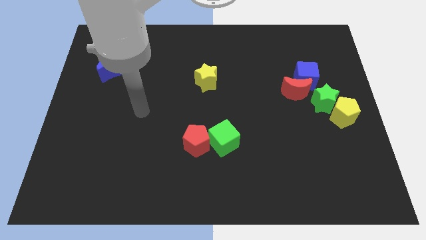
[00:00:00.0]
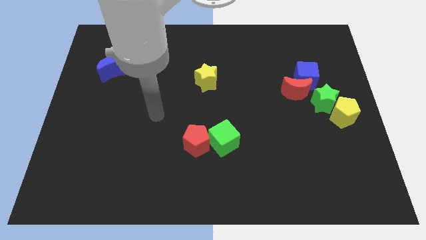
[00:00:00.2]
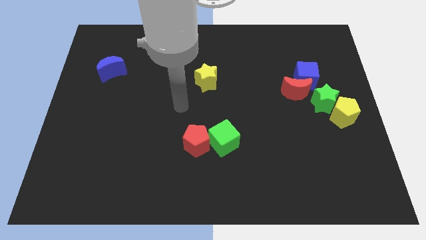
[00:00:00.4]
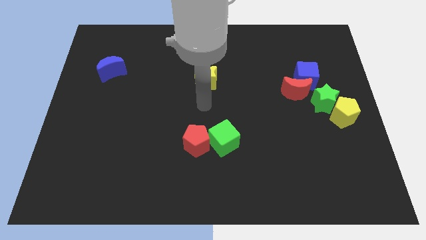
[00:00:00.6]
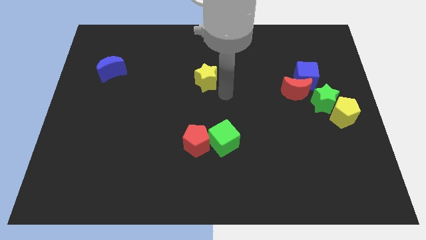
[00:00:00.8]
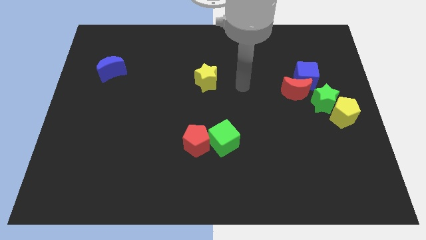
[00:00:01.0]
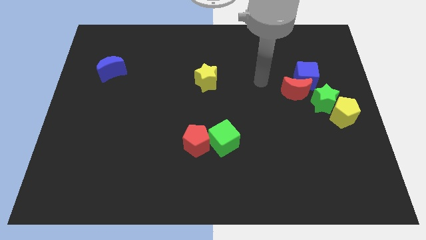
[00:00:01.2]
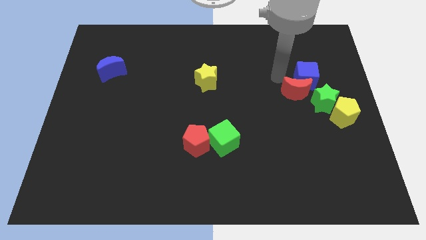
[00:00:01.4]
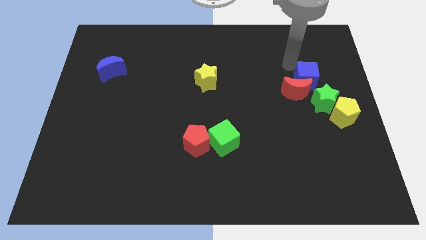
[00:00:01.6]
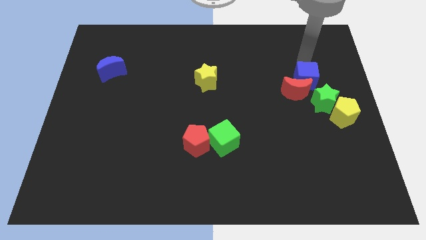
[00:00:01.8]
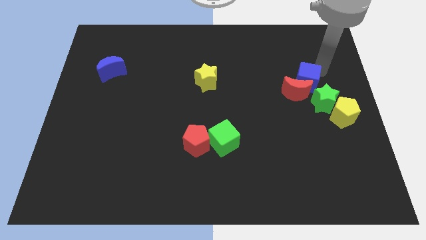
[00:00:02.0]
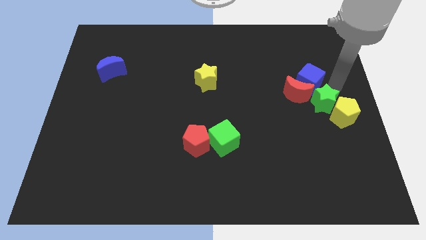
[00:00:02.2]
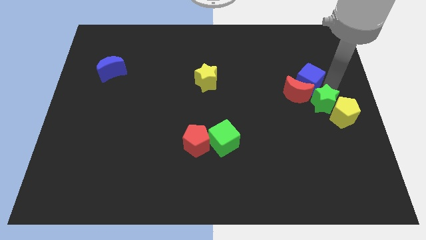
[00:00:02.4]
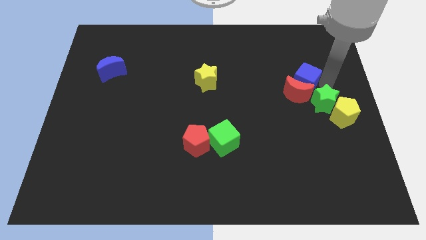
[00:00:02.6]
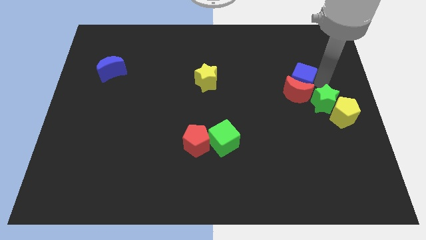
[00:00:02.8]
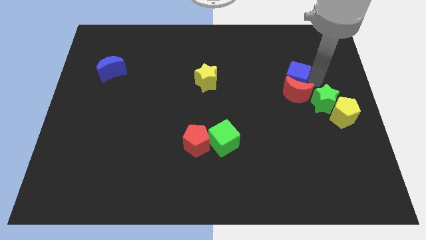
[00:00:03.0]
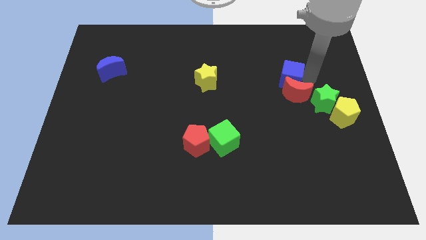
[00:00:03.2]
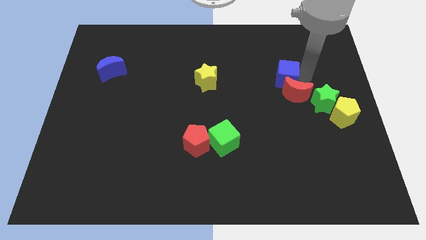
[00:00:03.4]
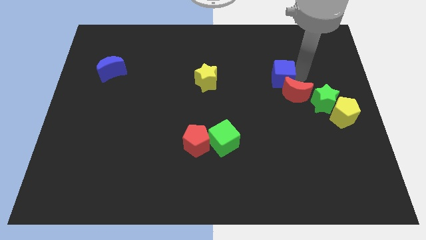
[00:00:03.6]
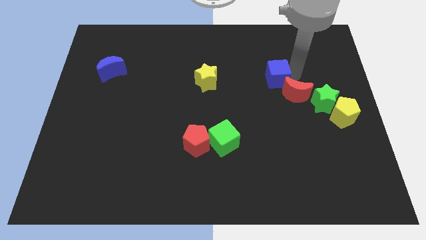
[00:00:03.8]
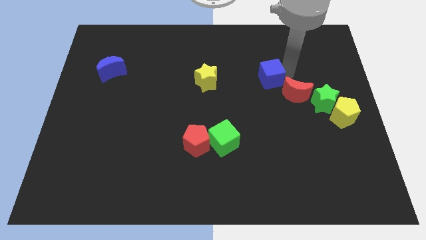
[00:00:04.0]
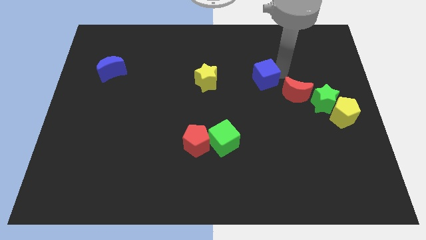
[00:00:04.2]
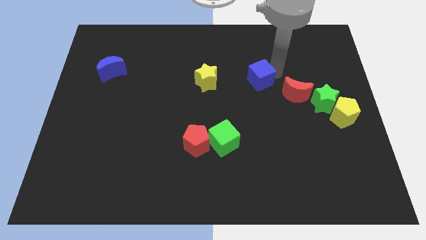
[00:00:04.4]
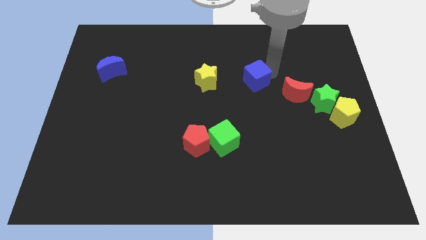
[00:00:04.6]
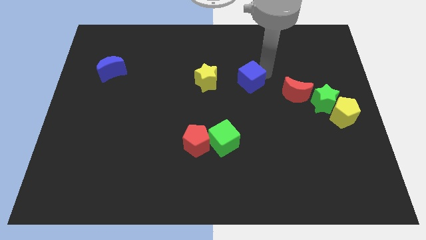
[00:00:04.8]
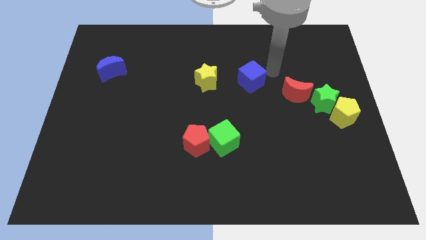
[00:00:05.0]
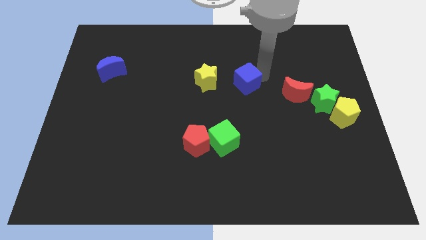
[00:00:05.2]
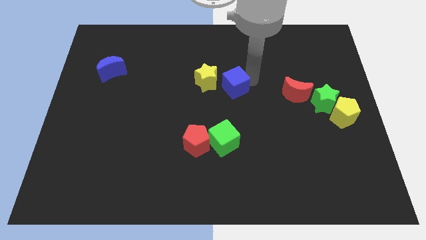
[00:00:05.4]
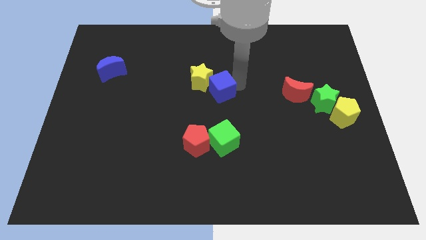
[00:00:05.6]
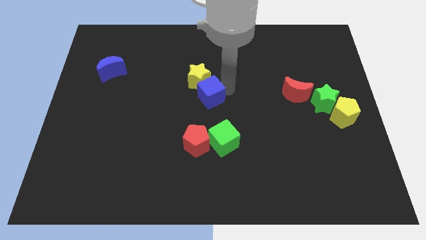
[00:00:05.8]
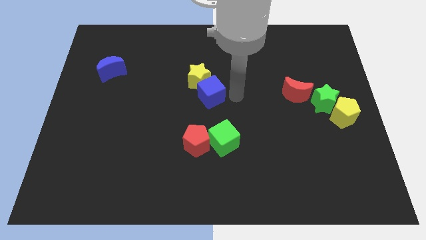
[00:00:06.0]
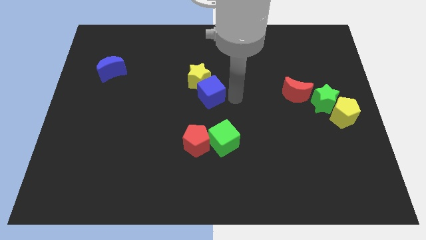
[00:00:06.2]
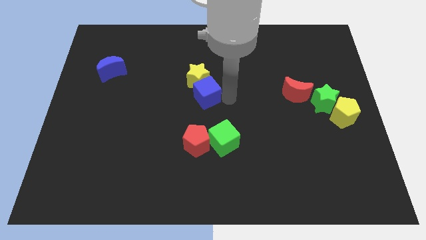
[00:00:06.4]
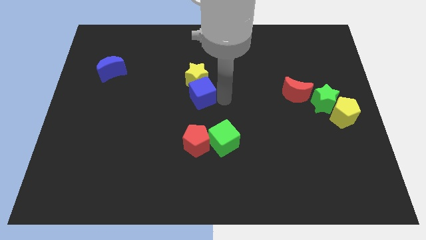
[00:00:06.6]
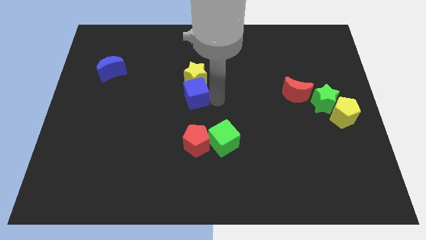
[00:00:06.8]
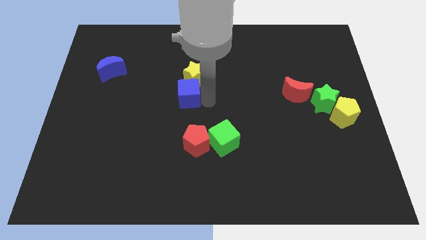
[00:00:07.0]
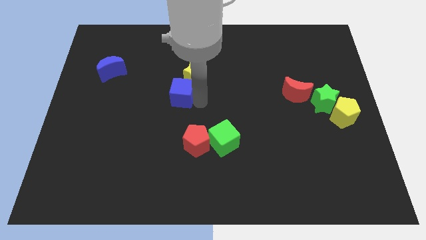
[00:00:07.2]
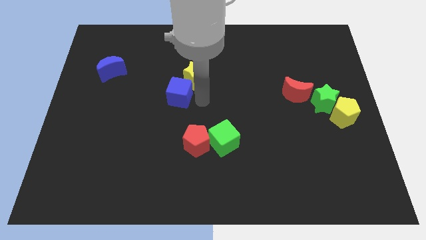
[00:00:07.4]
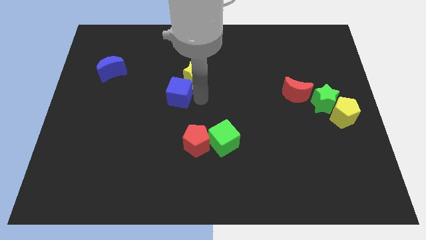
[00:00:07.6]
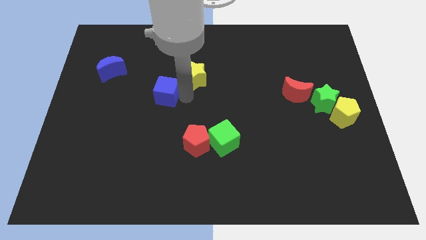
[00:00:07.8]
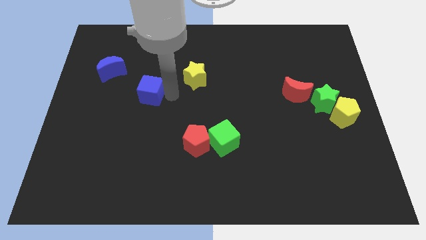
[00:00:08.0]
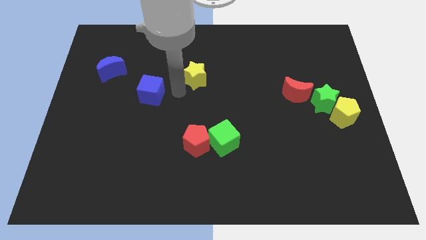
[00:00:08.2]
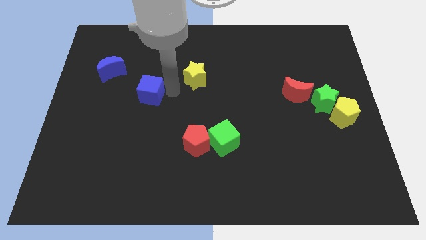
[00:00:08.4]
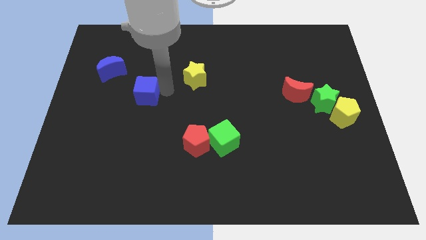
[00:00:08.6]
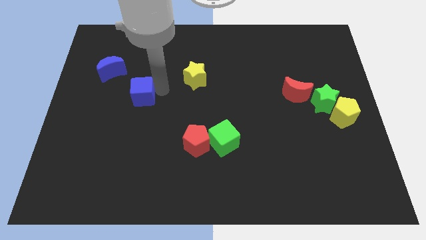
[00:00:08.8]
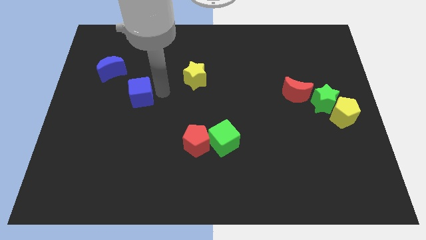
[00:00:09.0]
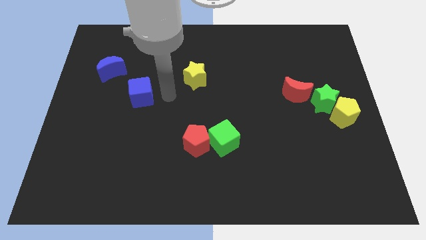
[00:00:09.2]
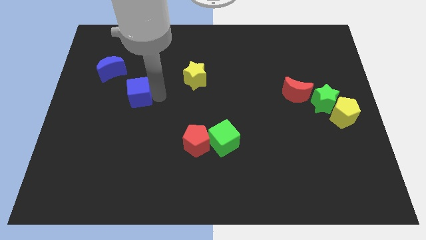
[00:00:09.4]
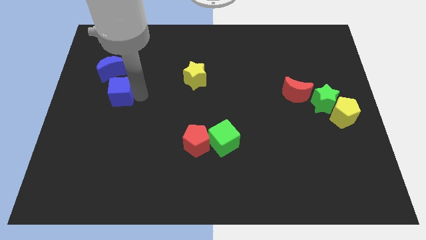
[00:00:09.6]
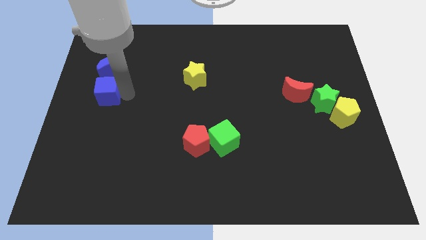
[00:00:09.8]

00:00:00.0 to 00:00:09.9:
push the blue cube to the left side of the board

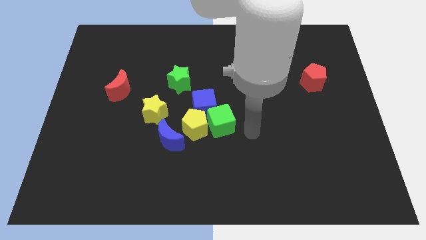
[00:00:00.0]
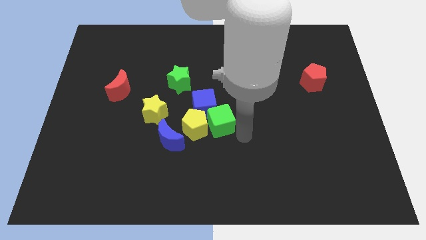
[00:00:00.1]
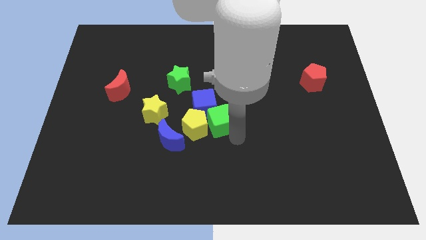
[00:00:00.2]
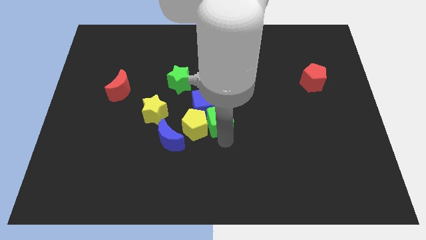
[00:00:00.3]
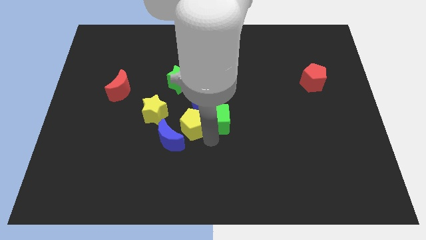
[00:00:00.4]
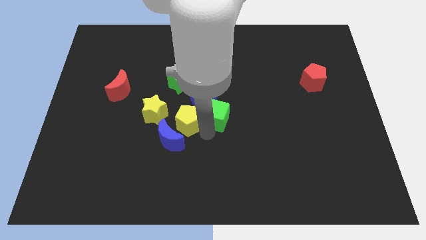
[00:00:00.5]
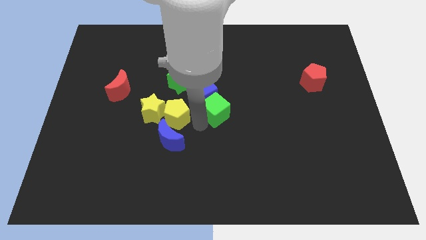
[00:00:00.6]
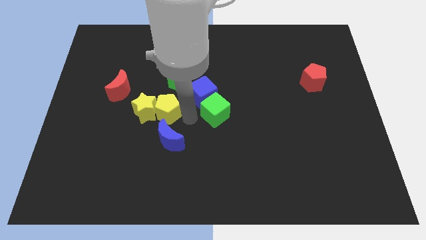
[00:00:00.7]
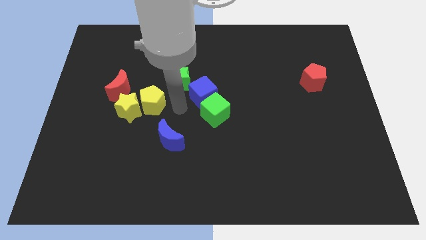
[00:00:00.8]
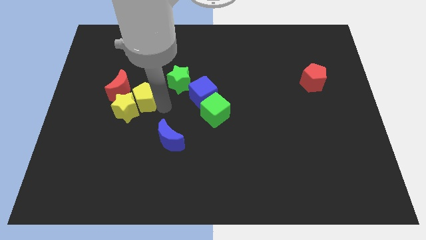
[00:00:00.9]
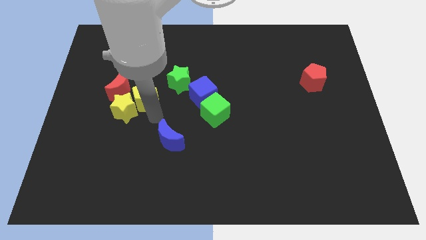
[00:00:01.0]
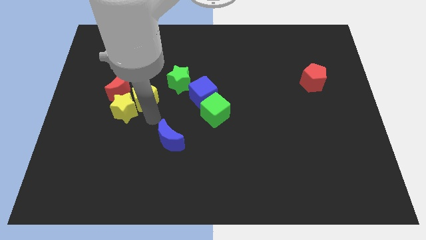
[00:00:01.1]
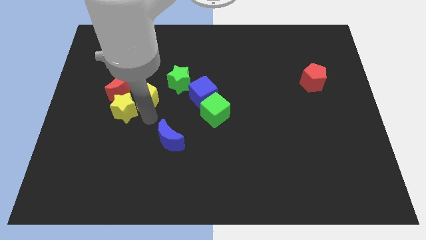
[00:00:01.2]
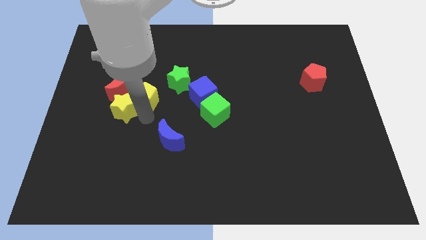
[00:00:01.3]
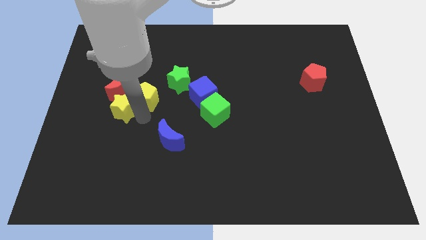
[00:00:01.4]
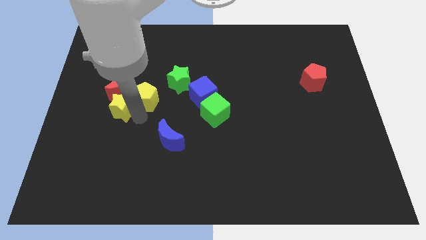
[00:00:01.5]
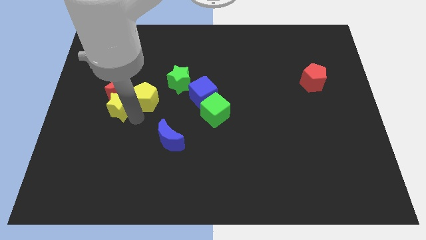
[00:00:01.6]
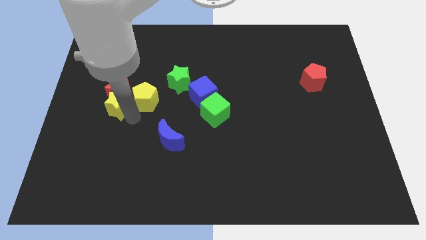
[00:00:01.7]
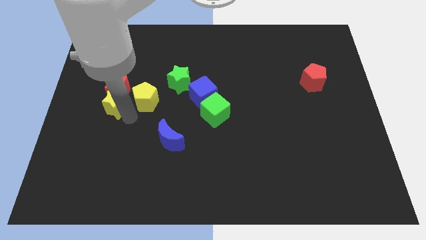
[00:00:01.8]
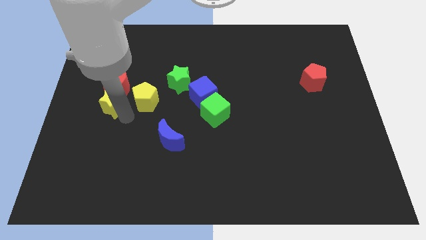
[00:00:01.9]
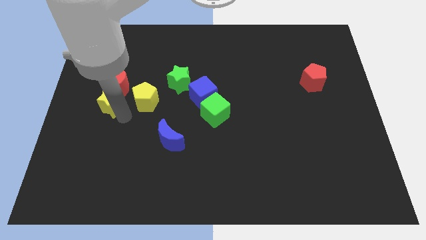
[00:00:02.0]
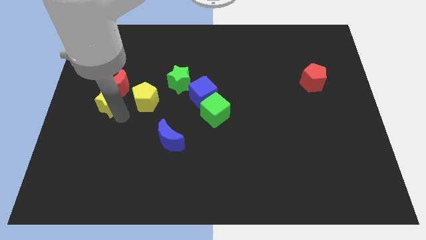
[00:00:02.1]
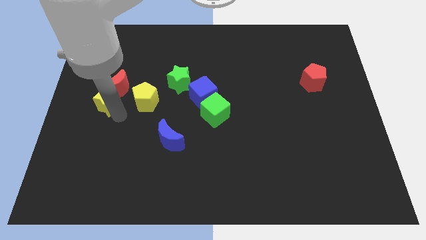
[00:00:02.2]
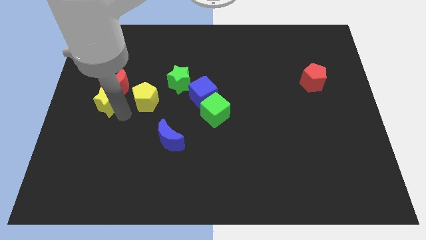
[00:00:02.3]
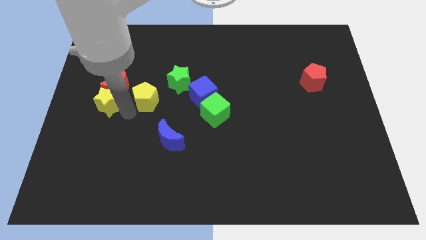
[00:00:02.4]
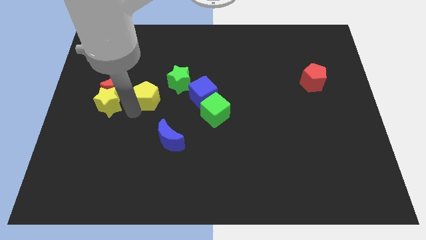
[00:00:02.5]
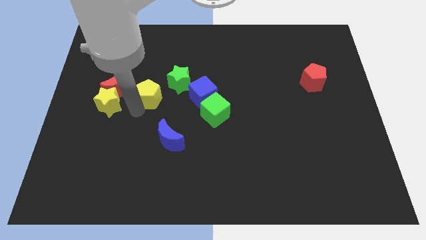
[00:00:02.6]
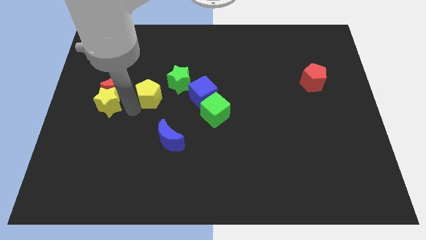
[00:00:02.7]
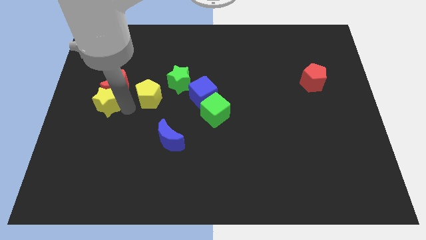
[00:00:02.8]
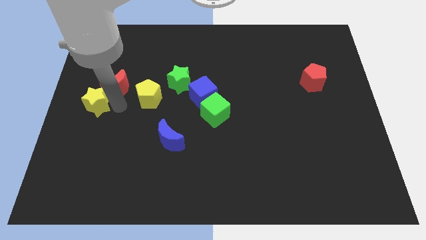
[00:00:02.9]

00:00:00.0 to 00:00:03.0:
put the yellow star to the center left

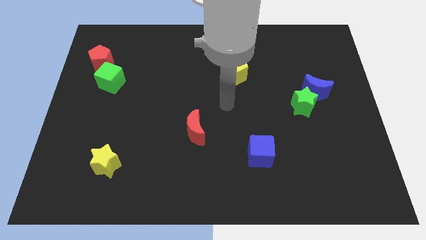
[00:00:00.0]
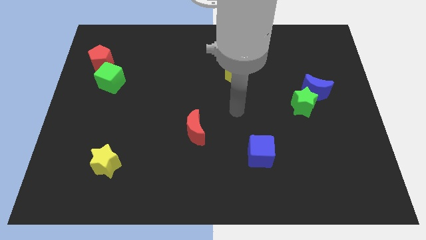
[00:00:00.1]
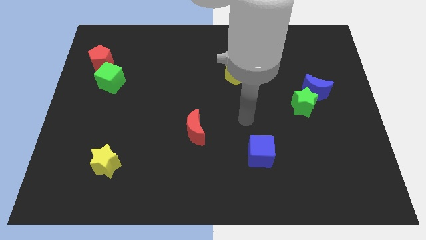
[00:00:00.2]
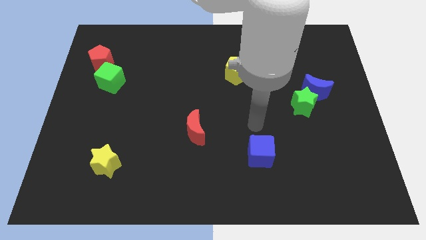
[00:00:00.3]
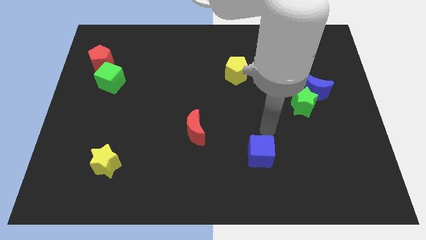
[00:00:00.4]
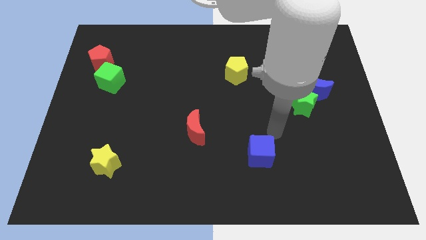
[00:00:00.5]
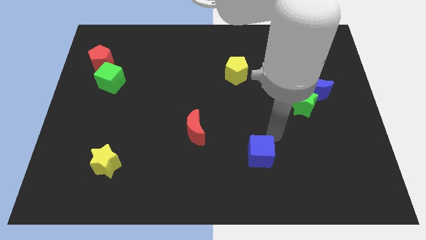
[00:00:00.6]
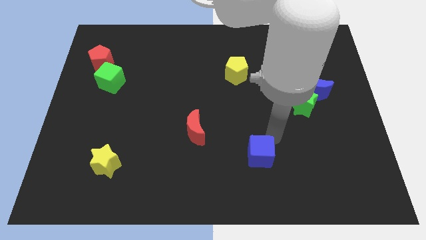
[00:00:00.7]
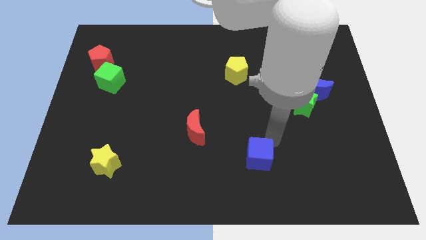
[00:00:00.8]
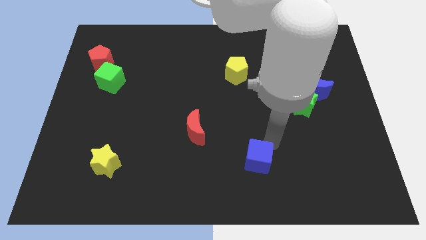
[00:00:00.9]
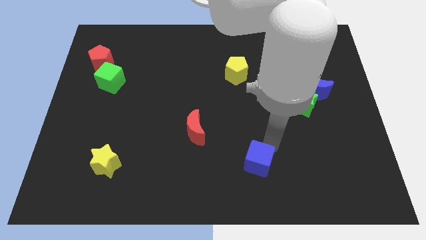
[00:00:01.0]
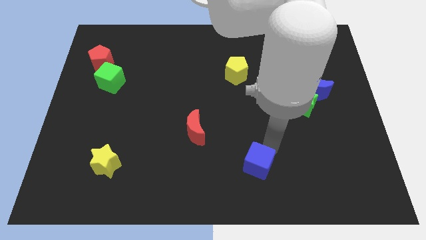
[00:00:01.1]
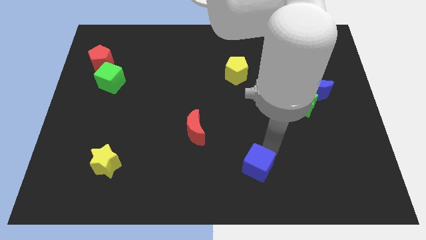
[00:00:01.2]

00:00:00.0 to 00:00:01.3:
slide the blue cube to the bottom side
